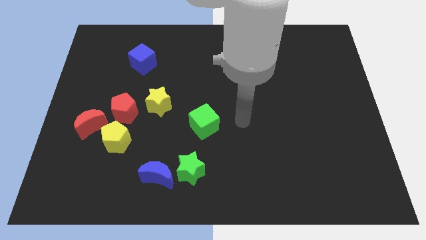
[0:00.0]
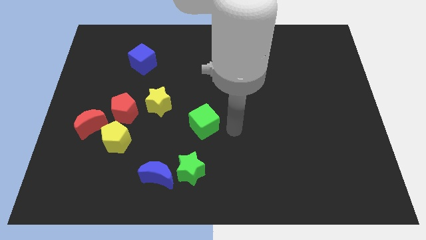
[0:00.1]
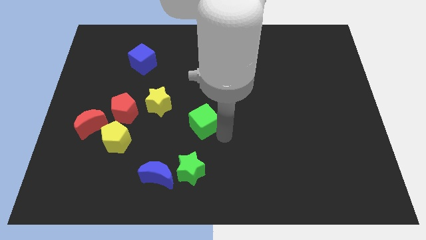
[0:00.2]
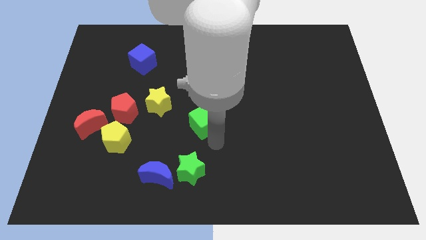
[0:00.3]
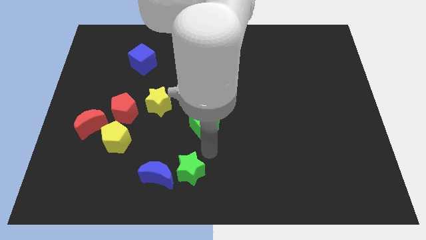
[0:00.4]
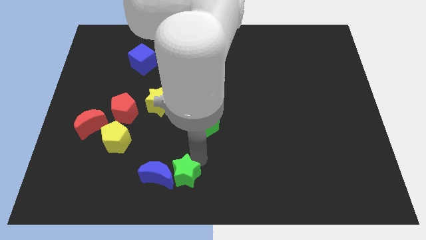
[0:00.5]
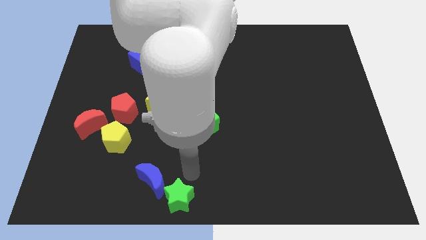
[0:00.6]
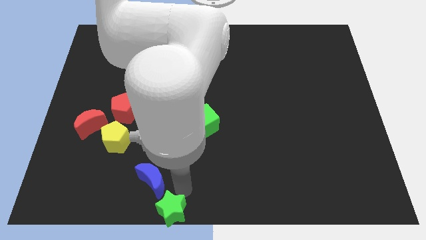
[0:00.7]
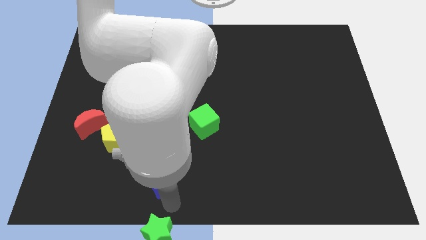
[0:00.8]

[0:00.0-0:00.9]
pull the blue moon apart from the green star

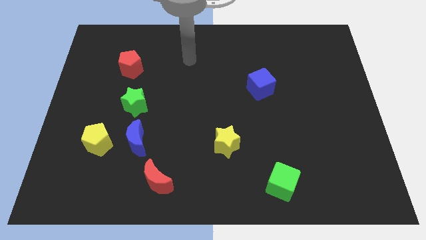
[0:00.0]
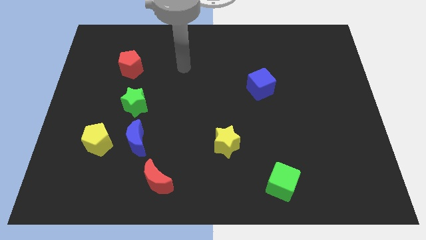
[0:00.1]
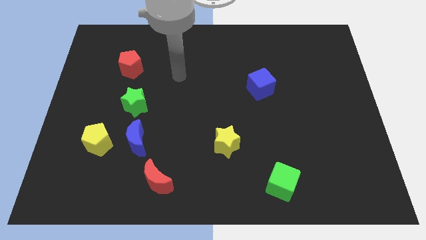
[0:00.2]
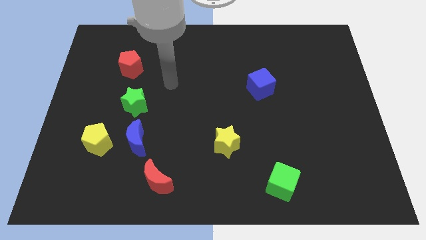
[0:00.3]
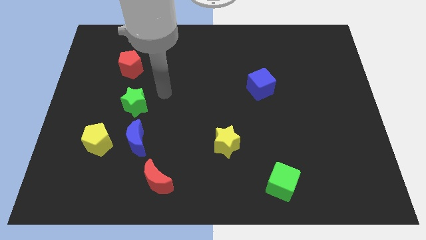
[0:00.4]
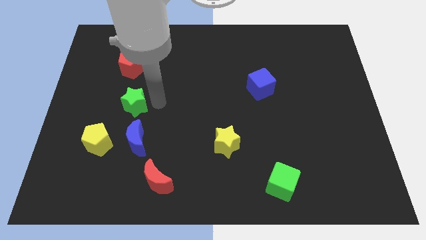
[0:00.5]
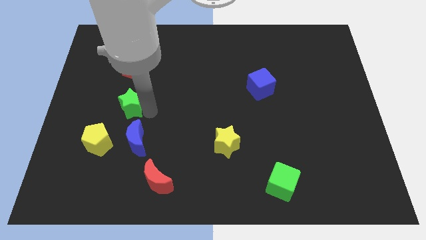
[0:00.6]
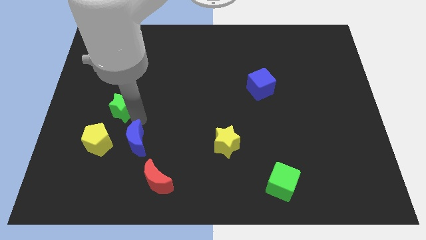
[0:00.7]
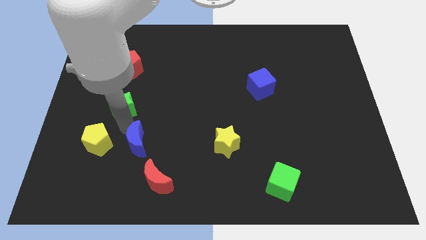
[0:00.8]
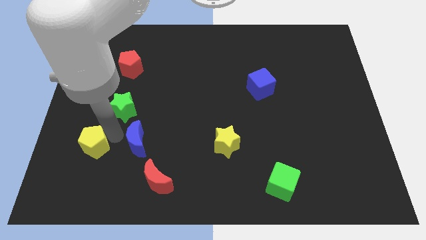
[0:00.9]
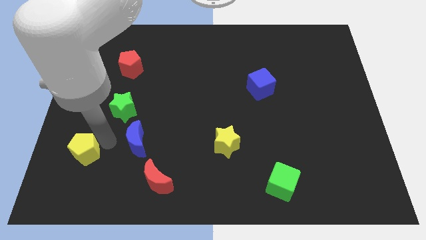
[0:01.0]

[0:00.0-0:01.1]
move the blue moon away from the yellow pentagon

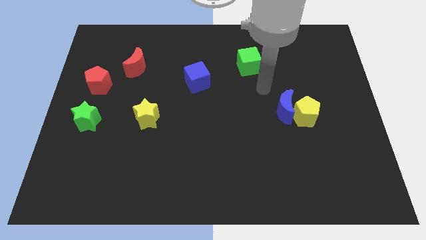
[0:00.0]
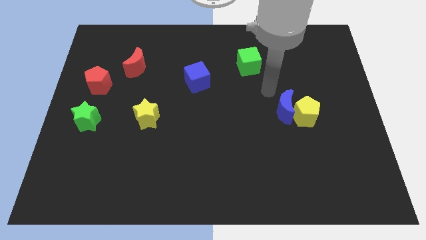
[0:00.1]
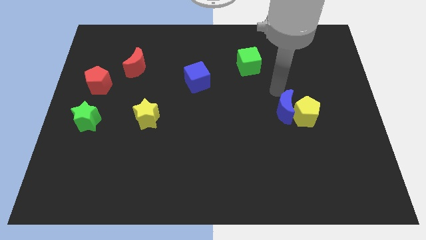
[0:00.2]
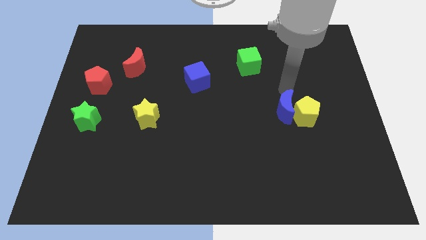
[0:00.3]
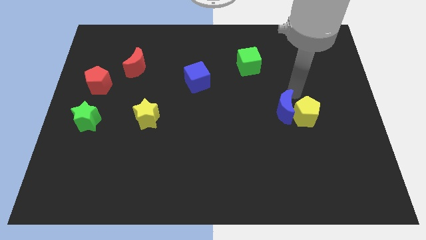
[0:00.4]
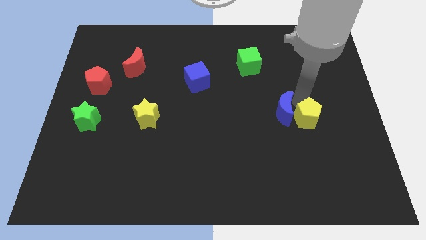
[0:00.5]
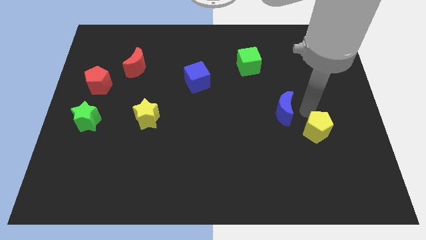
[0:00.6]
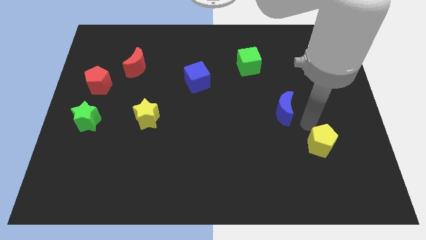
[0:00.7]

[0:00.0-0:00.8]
pull the blue moon apart from the yellow pentagon

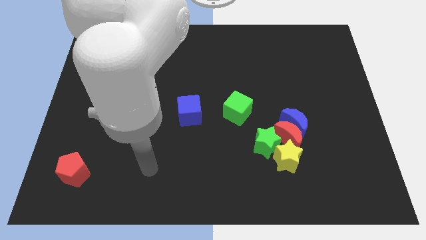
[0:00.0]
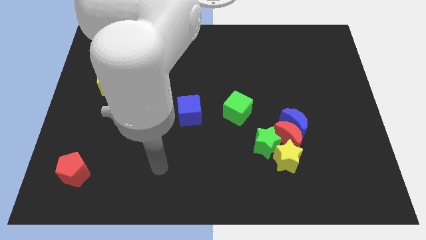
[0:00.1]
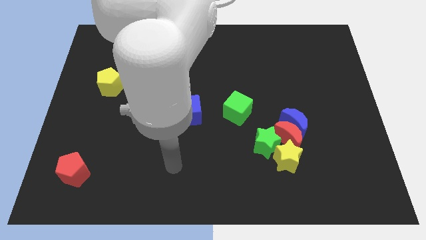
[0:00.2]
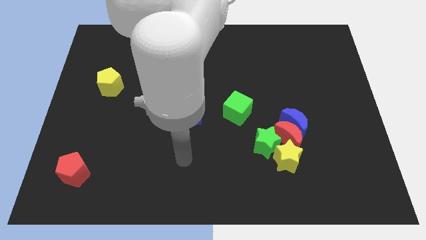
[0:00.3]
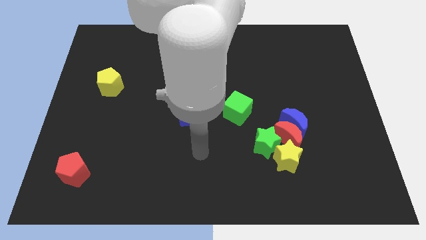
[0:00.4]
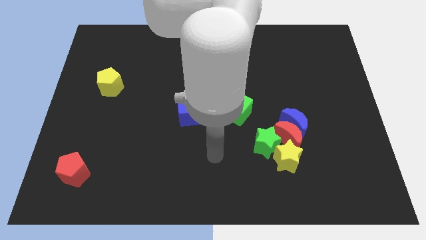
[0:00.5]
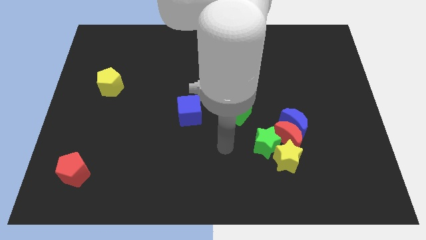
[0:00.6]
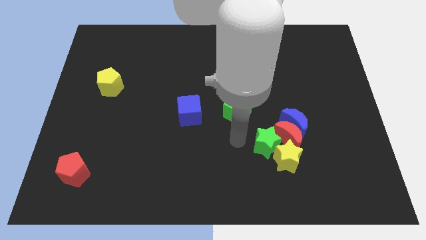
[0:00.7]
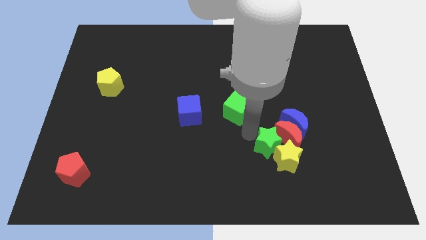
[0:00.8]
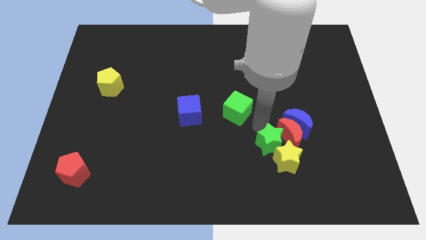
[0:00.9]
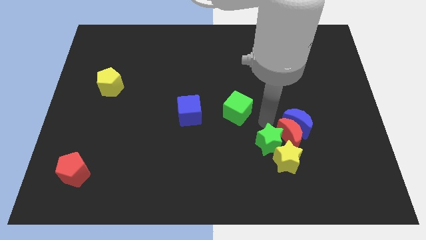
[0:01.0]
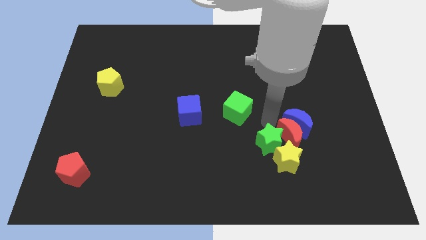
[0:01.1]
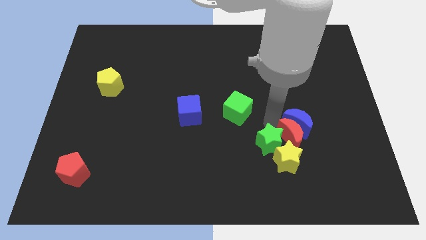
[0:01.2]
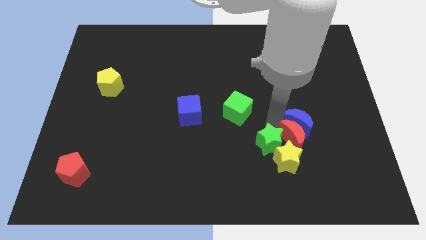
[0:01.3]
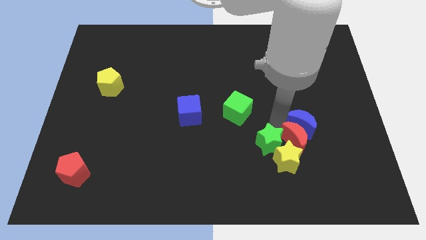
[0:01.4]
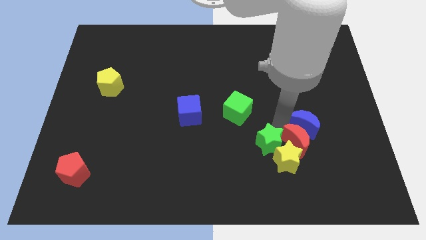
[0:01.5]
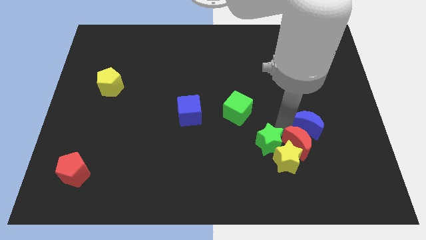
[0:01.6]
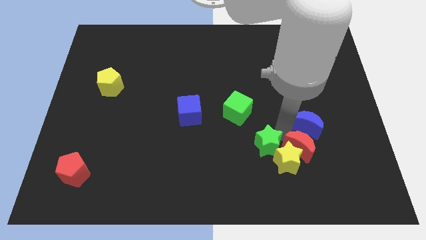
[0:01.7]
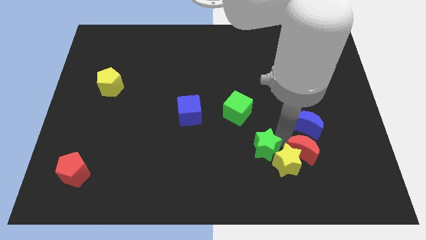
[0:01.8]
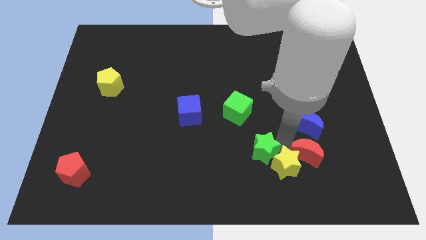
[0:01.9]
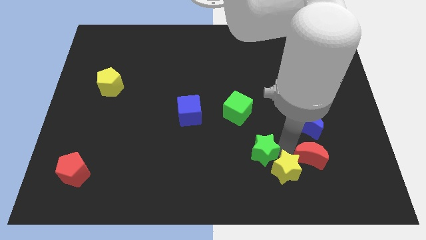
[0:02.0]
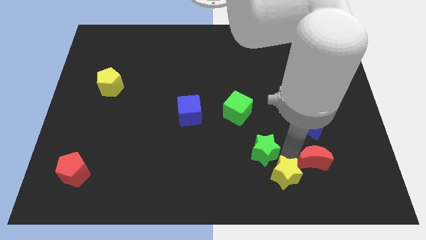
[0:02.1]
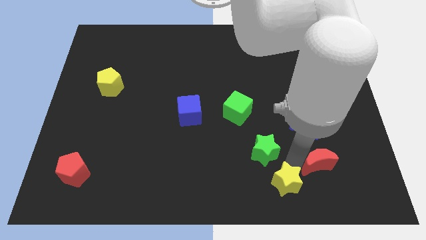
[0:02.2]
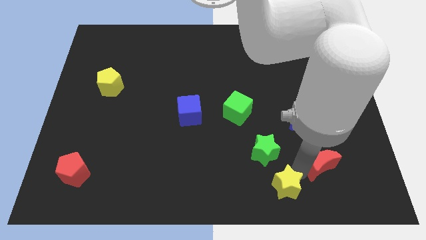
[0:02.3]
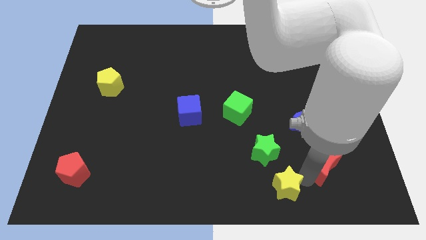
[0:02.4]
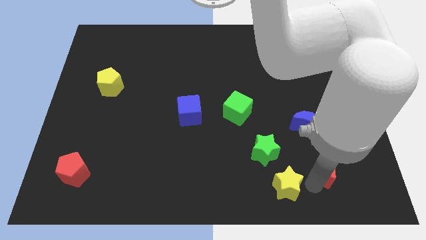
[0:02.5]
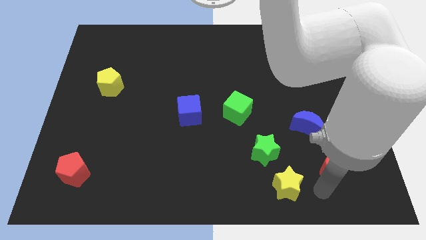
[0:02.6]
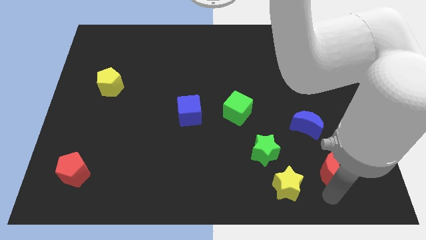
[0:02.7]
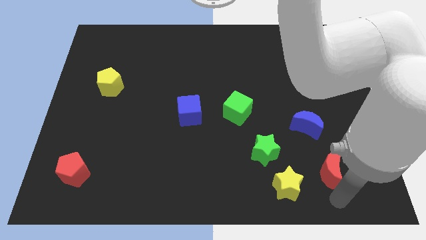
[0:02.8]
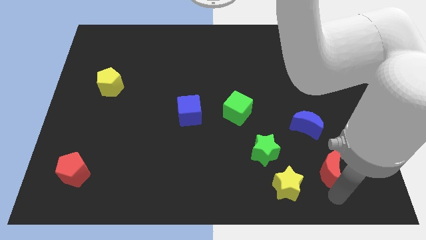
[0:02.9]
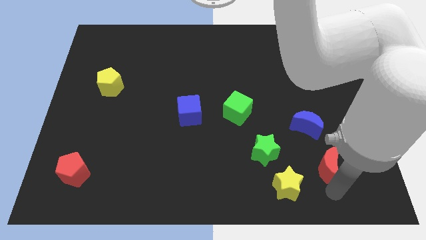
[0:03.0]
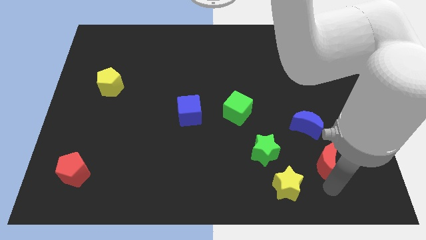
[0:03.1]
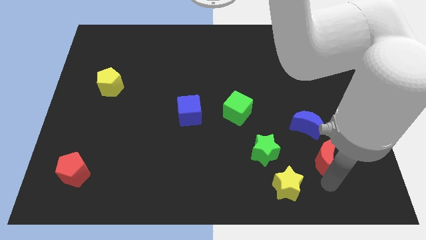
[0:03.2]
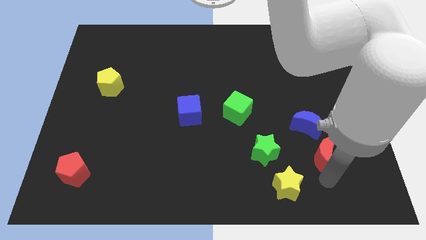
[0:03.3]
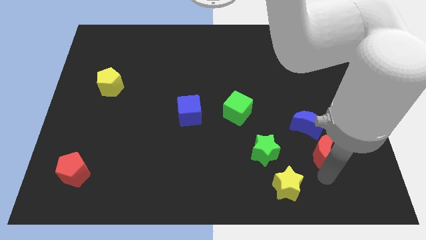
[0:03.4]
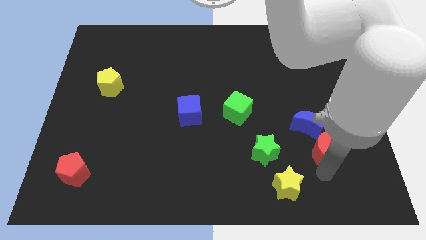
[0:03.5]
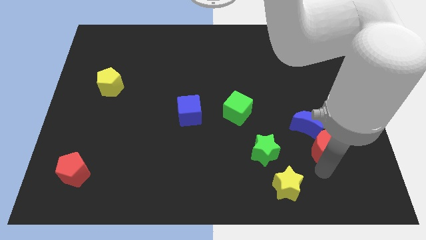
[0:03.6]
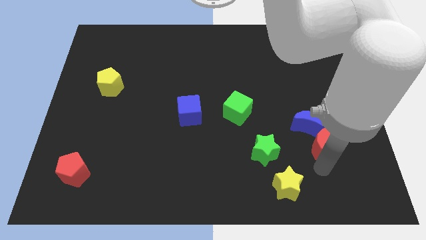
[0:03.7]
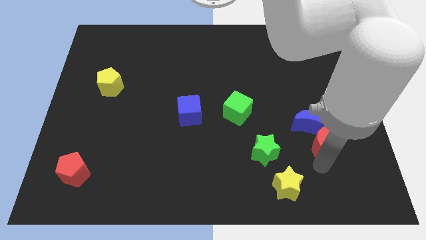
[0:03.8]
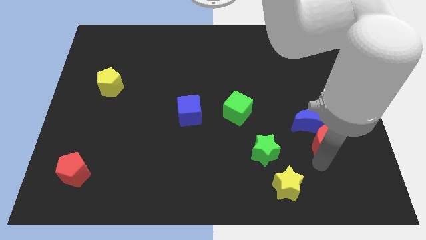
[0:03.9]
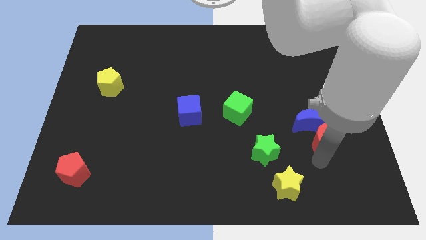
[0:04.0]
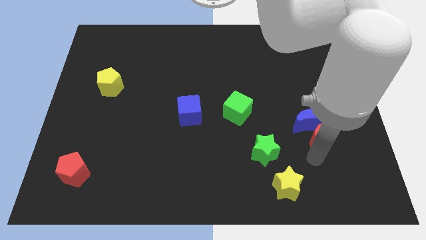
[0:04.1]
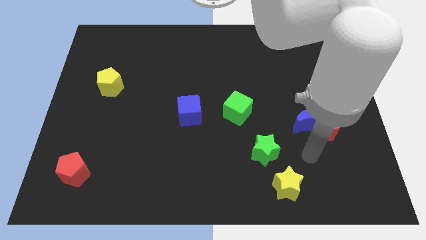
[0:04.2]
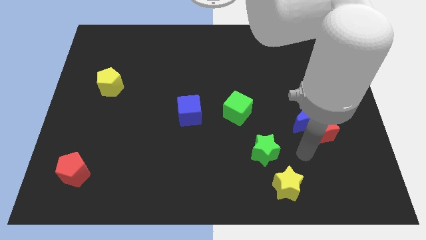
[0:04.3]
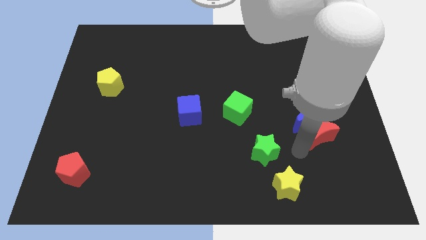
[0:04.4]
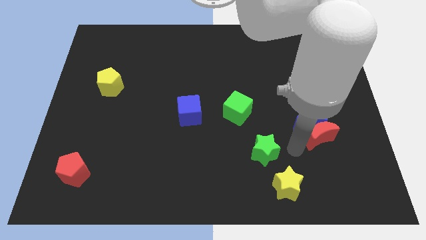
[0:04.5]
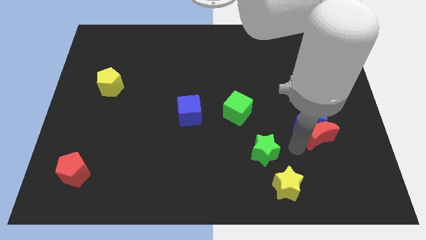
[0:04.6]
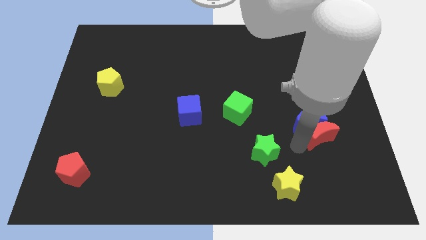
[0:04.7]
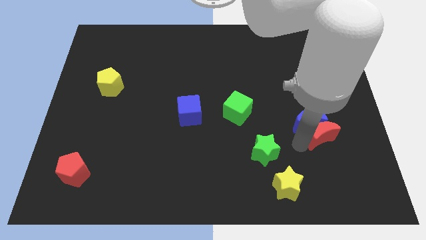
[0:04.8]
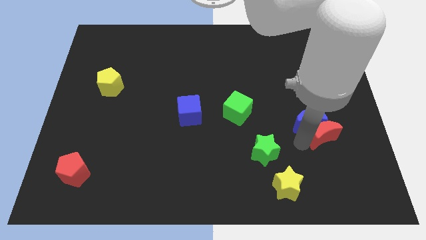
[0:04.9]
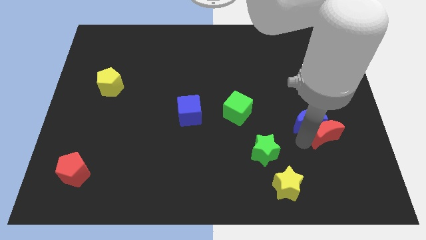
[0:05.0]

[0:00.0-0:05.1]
pull the red moon apart from the group

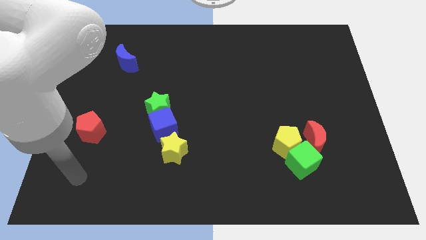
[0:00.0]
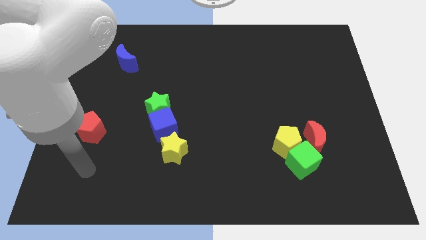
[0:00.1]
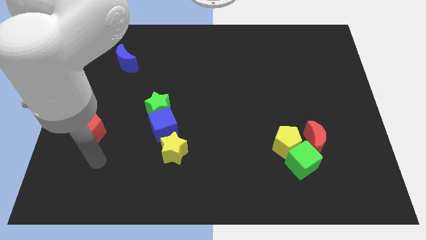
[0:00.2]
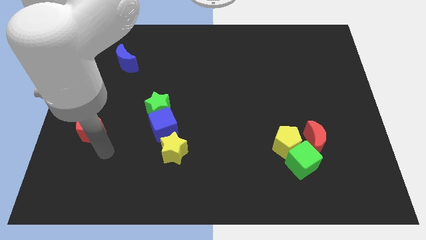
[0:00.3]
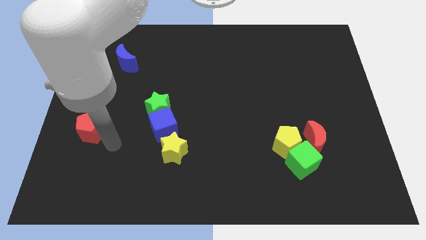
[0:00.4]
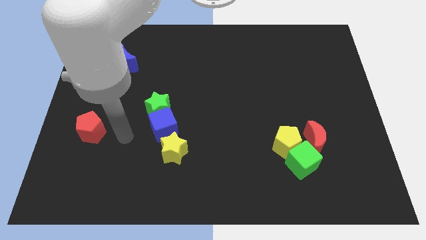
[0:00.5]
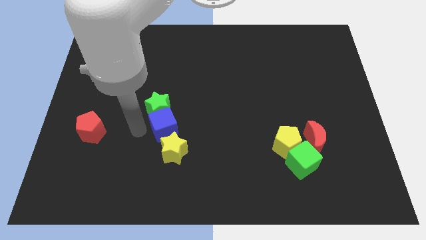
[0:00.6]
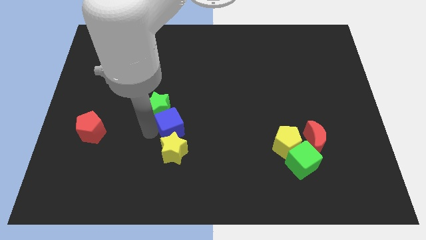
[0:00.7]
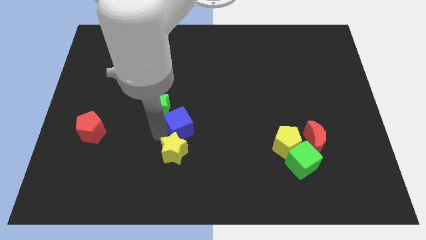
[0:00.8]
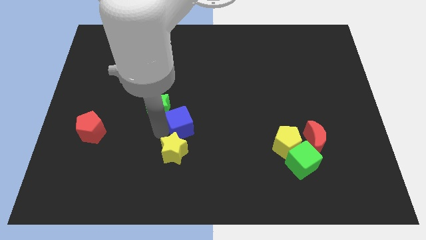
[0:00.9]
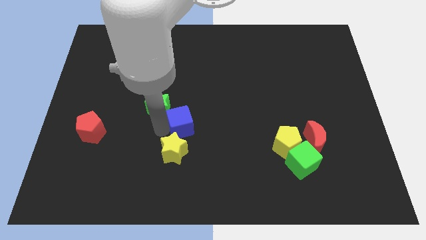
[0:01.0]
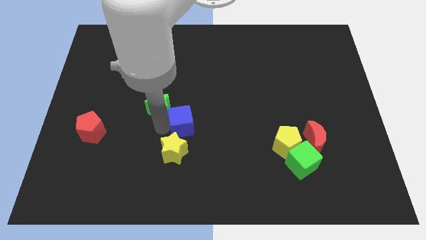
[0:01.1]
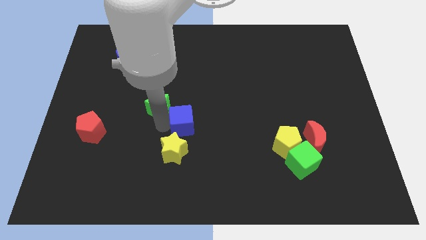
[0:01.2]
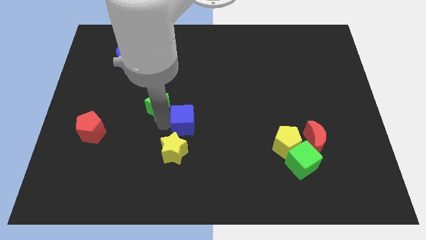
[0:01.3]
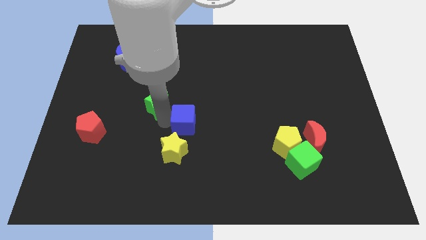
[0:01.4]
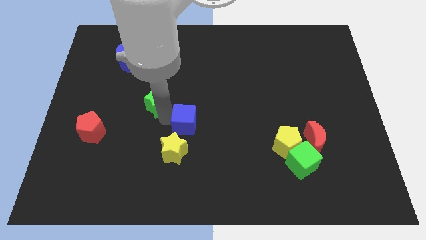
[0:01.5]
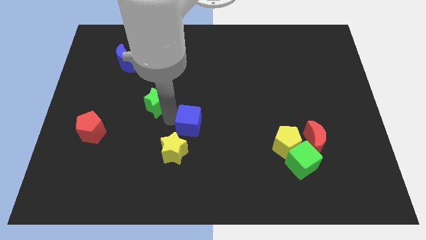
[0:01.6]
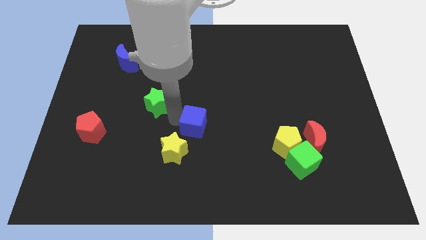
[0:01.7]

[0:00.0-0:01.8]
move the green star away from the blue cube
